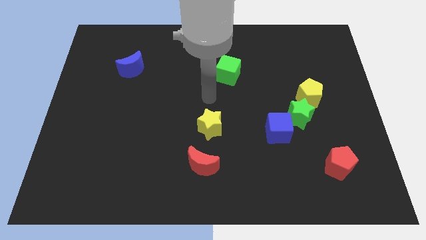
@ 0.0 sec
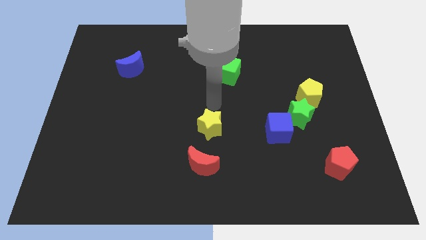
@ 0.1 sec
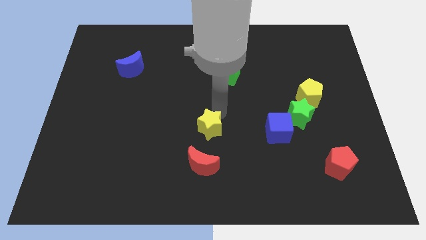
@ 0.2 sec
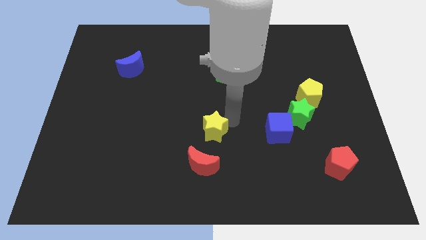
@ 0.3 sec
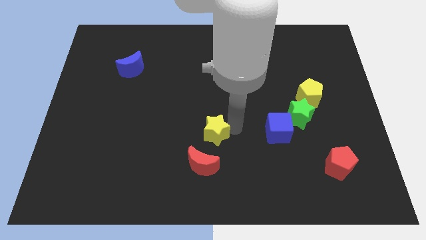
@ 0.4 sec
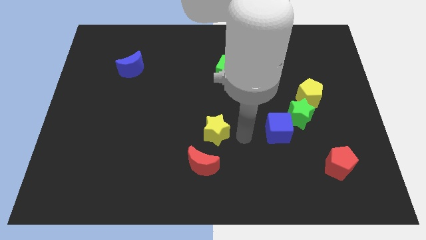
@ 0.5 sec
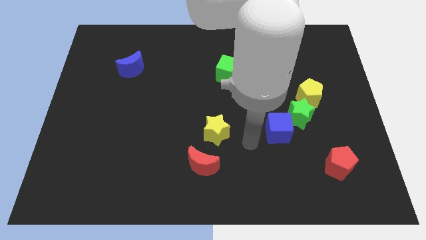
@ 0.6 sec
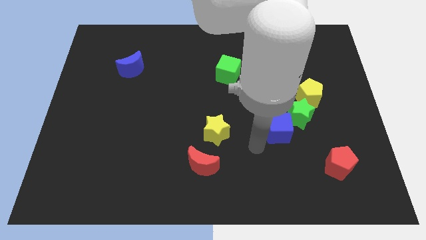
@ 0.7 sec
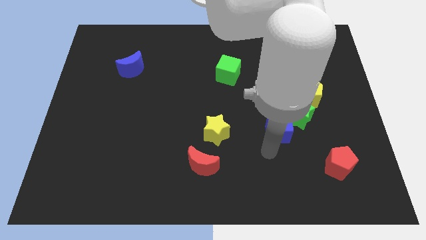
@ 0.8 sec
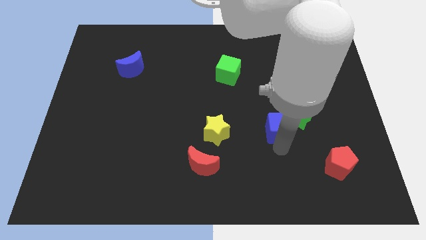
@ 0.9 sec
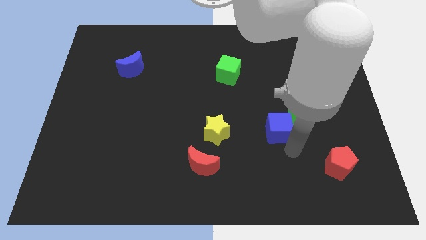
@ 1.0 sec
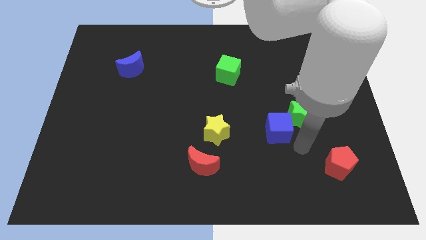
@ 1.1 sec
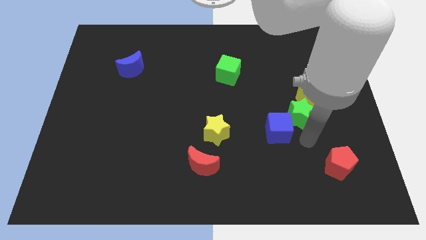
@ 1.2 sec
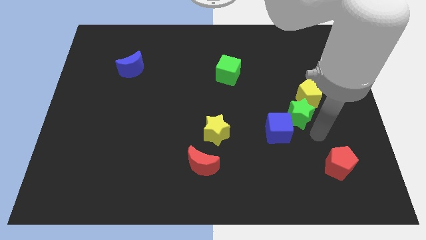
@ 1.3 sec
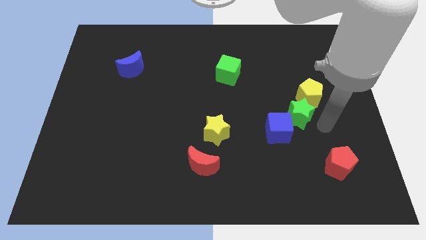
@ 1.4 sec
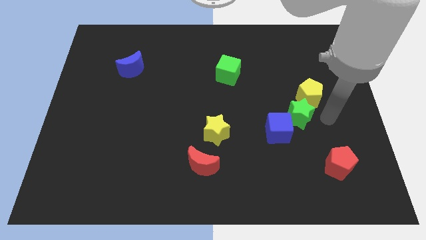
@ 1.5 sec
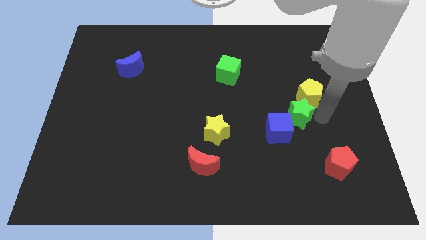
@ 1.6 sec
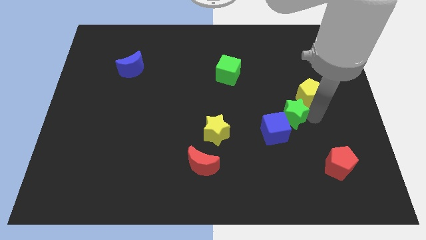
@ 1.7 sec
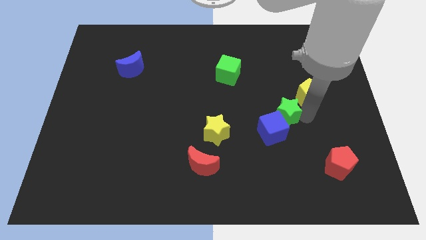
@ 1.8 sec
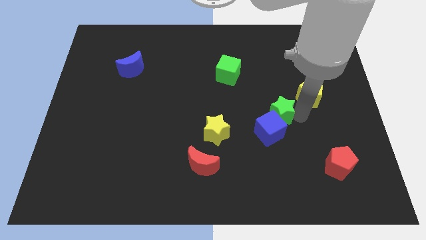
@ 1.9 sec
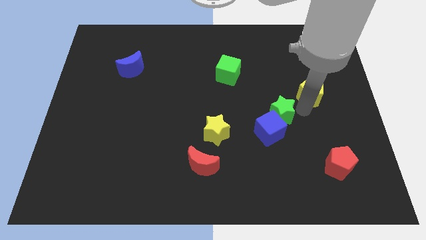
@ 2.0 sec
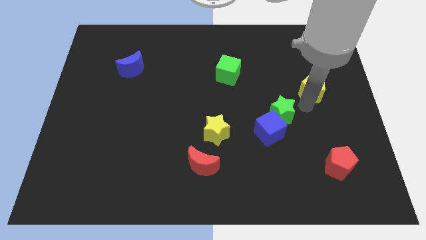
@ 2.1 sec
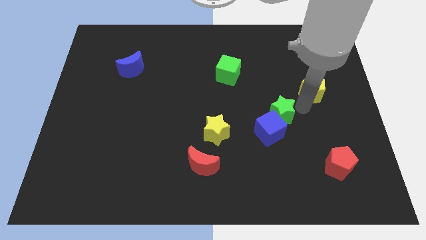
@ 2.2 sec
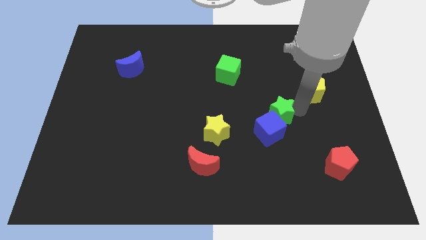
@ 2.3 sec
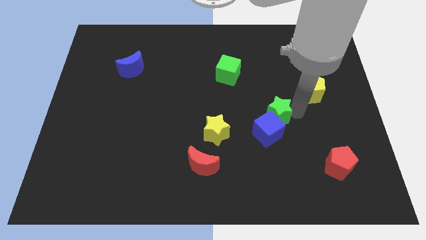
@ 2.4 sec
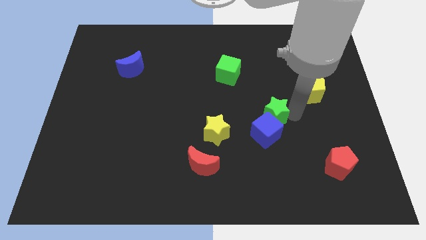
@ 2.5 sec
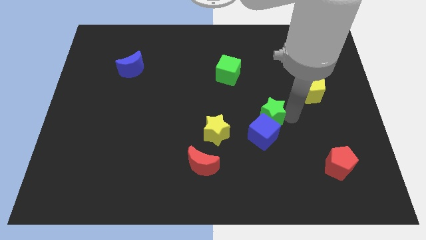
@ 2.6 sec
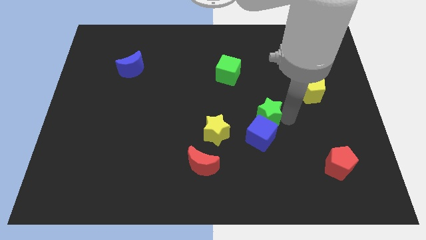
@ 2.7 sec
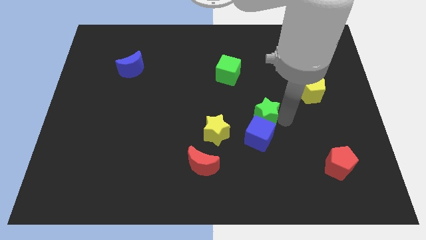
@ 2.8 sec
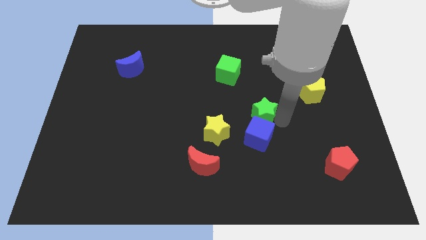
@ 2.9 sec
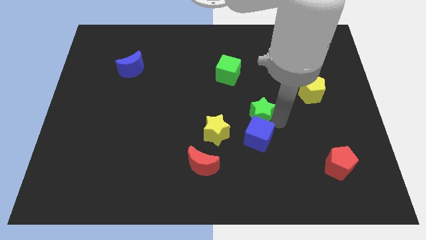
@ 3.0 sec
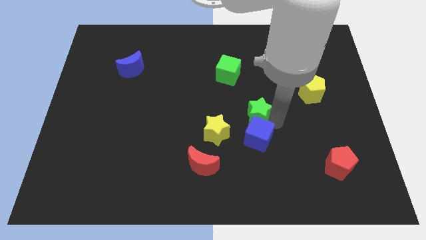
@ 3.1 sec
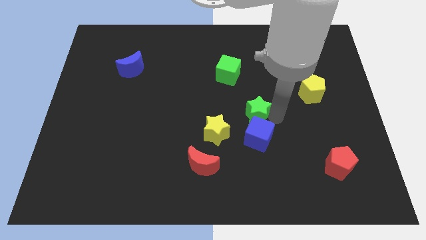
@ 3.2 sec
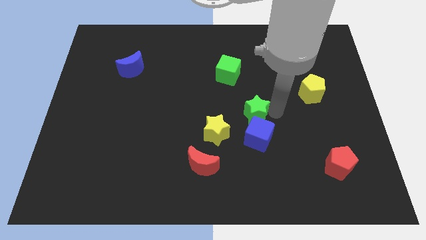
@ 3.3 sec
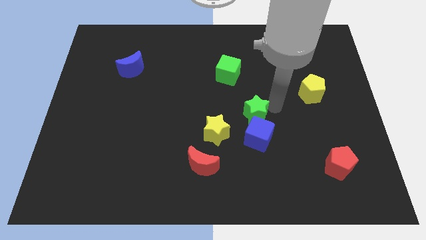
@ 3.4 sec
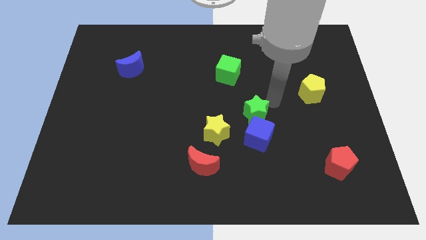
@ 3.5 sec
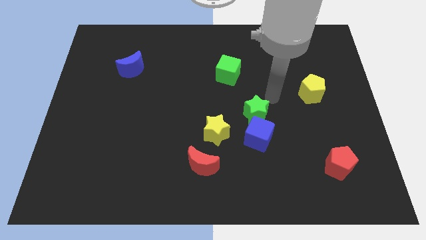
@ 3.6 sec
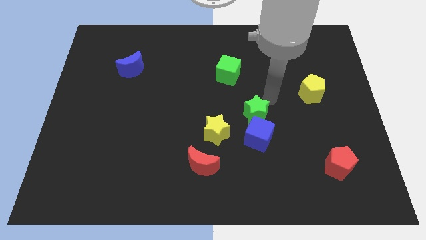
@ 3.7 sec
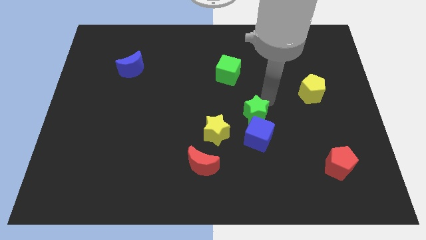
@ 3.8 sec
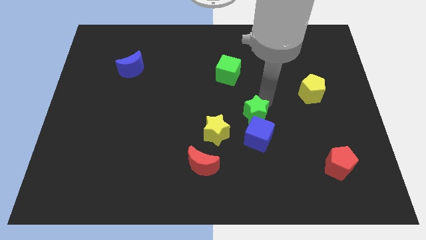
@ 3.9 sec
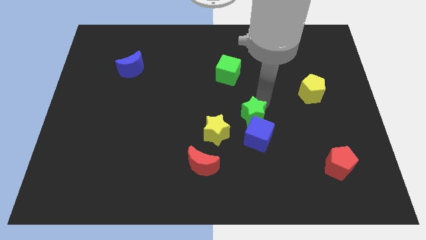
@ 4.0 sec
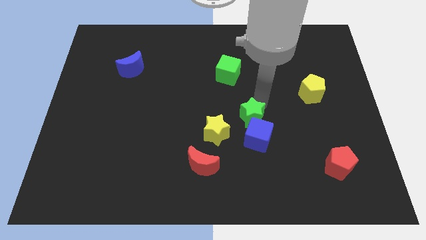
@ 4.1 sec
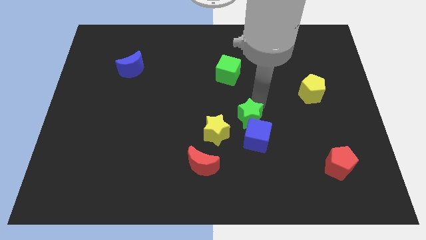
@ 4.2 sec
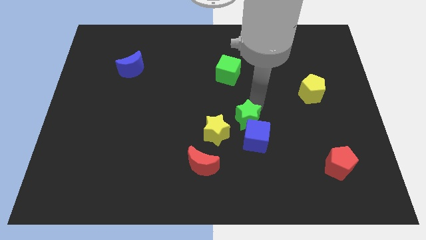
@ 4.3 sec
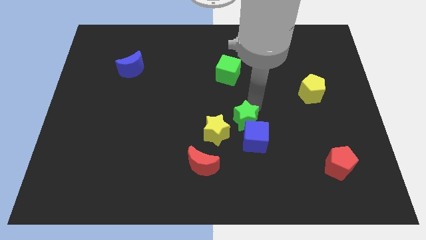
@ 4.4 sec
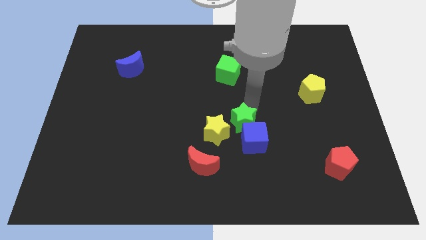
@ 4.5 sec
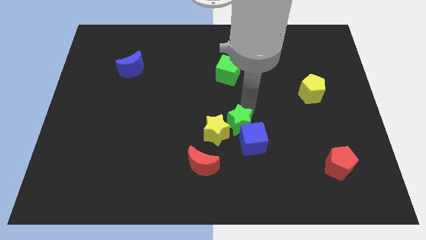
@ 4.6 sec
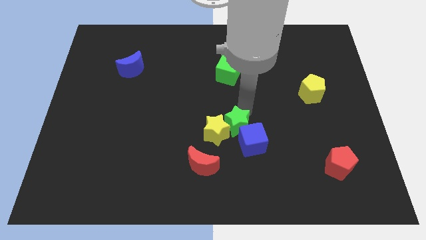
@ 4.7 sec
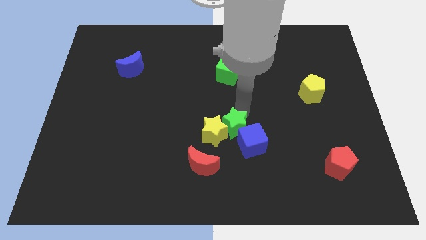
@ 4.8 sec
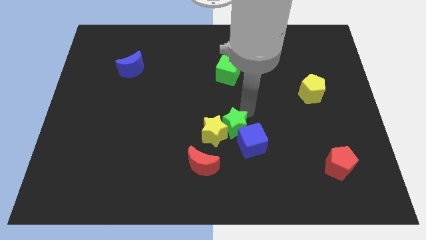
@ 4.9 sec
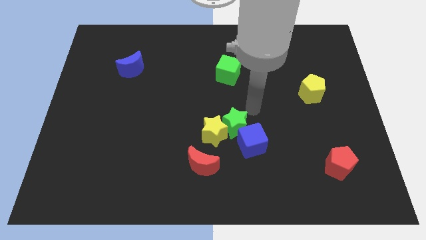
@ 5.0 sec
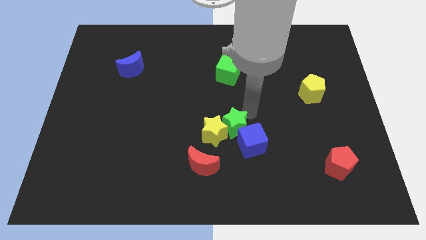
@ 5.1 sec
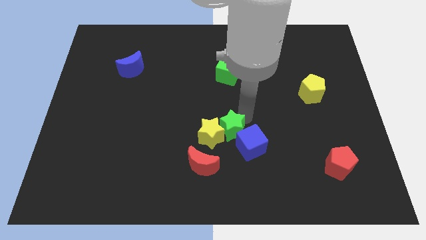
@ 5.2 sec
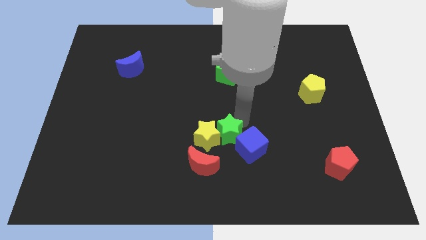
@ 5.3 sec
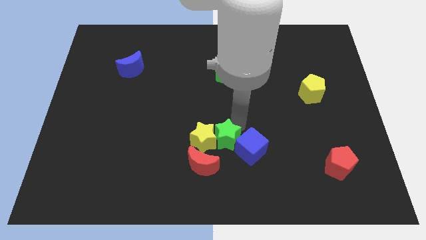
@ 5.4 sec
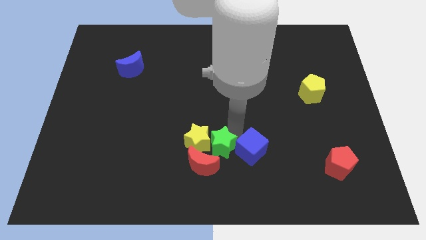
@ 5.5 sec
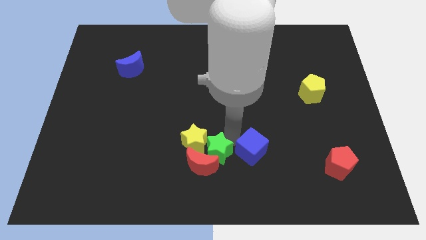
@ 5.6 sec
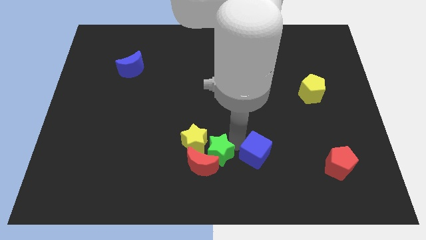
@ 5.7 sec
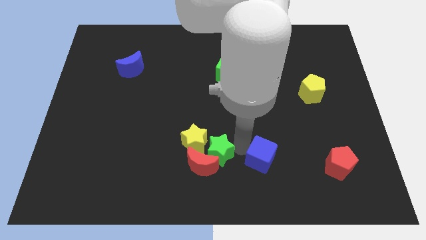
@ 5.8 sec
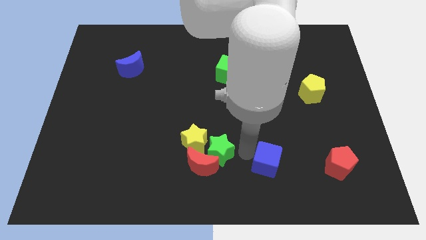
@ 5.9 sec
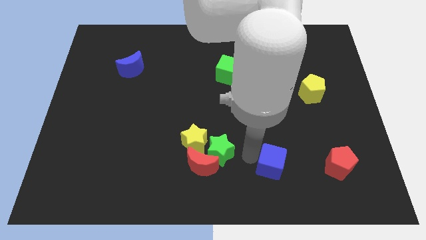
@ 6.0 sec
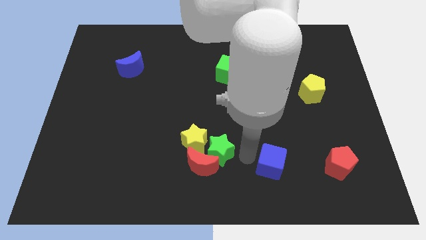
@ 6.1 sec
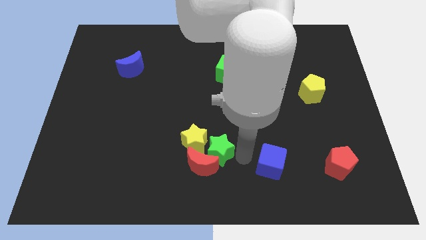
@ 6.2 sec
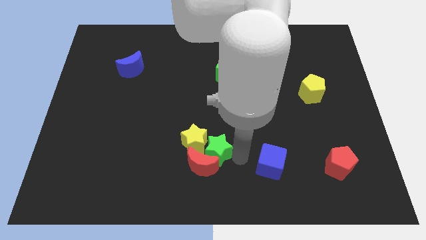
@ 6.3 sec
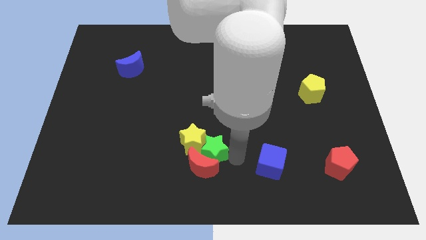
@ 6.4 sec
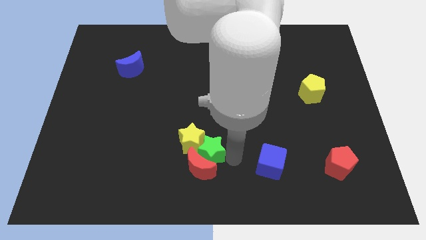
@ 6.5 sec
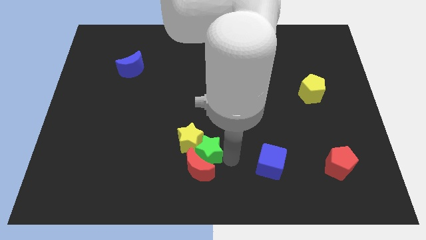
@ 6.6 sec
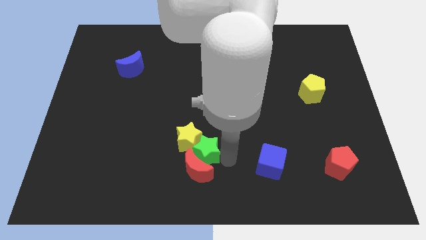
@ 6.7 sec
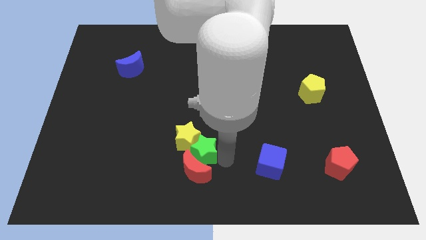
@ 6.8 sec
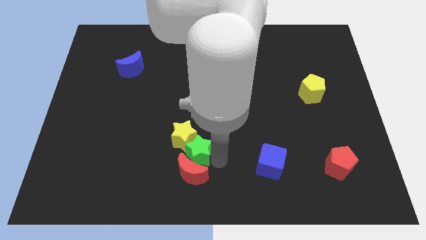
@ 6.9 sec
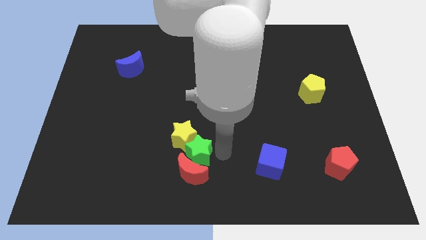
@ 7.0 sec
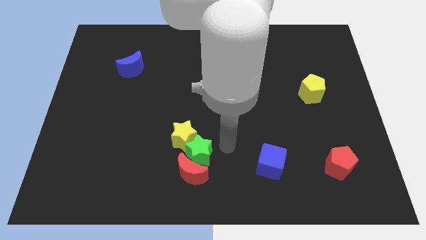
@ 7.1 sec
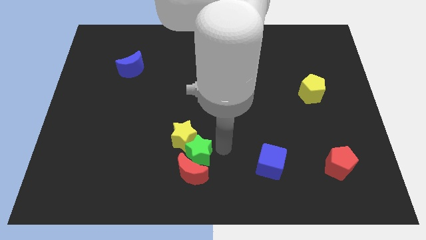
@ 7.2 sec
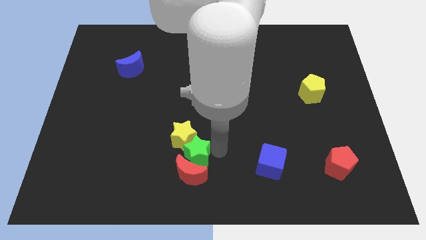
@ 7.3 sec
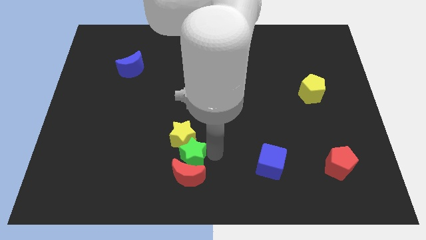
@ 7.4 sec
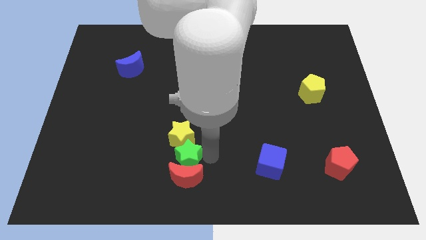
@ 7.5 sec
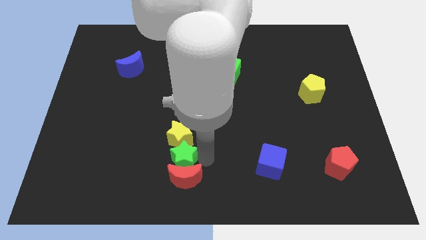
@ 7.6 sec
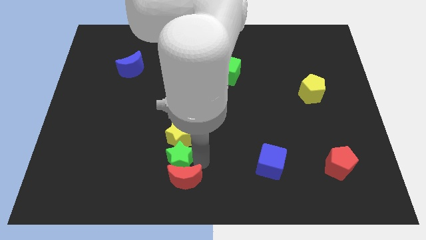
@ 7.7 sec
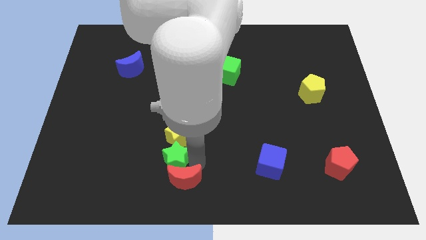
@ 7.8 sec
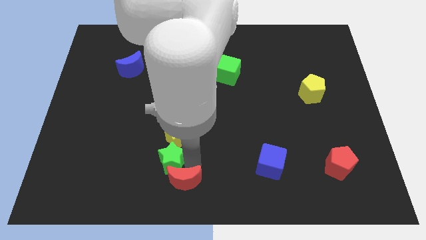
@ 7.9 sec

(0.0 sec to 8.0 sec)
put the green star to the left of the red moon
